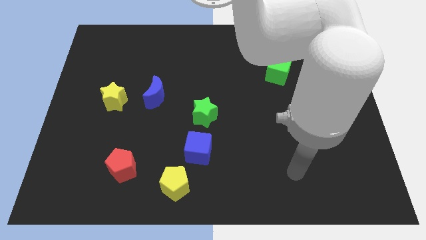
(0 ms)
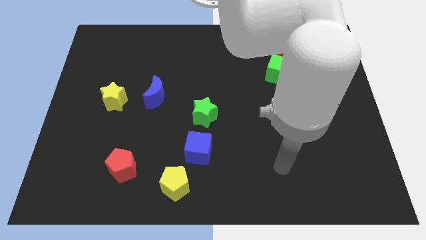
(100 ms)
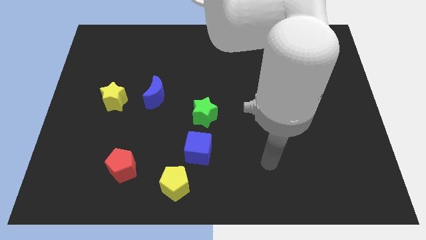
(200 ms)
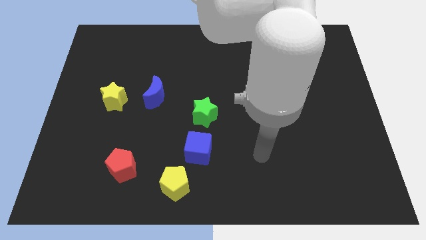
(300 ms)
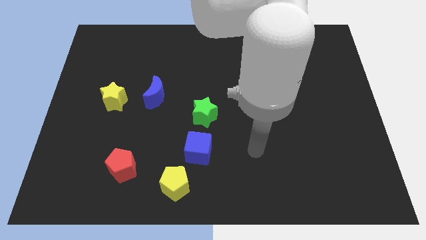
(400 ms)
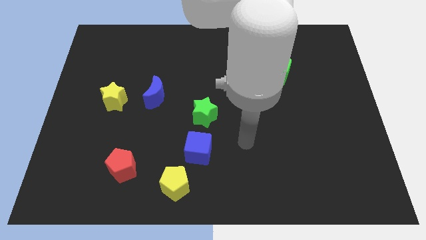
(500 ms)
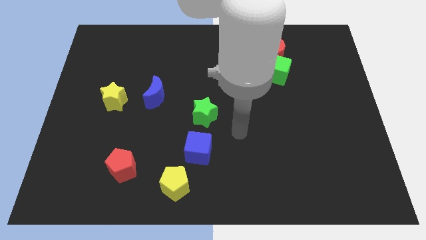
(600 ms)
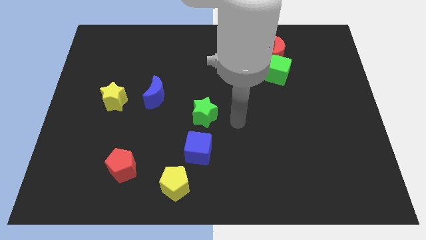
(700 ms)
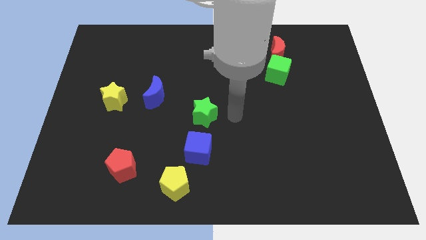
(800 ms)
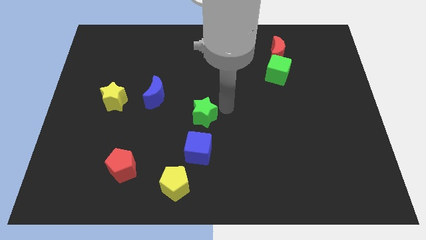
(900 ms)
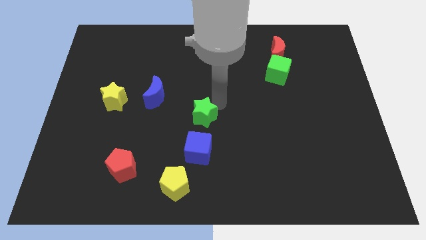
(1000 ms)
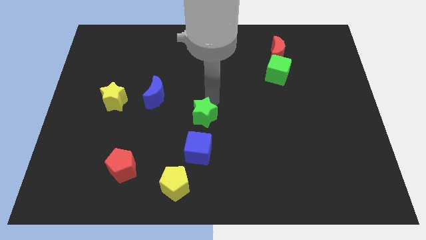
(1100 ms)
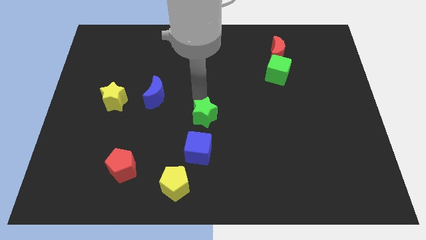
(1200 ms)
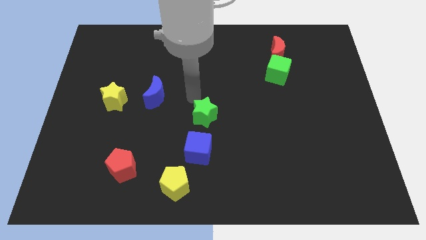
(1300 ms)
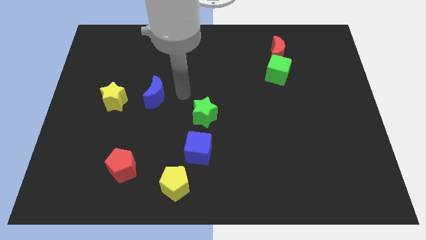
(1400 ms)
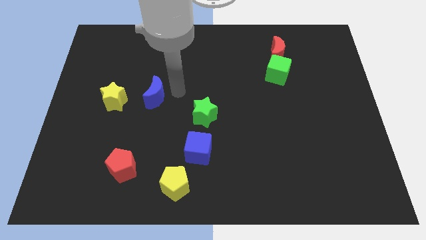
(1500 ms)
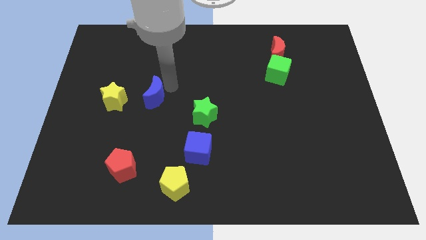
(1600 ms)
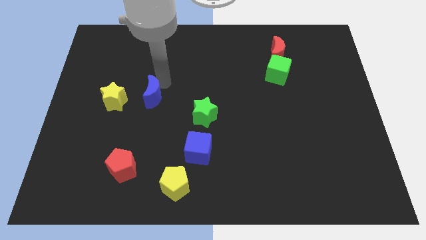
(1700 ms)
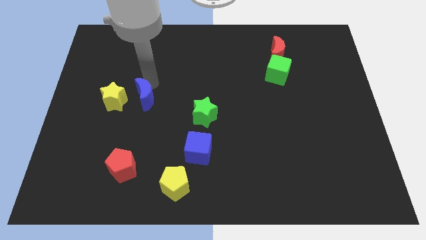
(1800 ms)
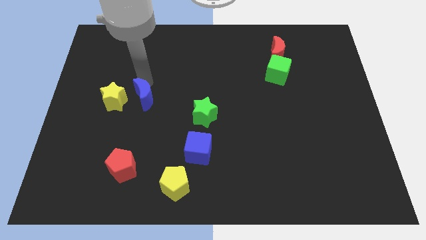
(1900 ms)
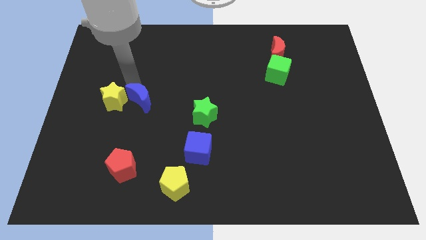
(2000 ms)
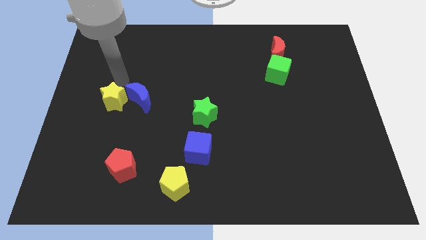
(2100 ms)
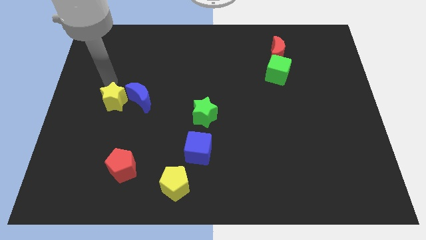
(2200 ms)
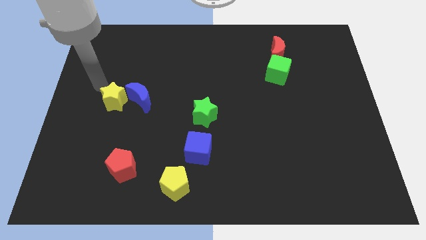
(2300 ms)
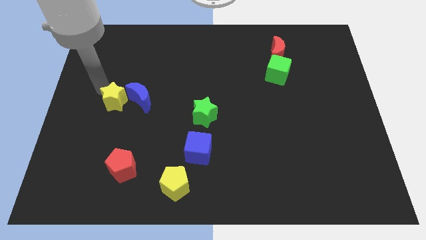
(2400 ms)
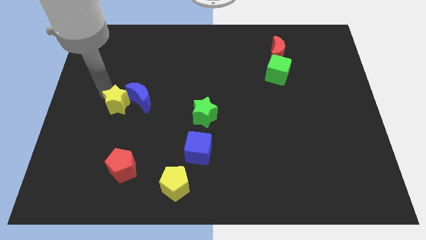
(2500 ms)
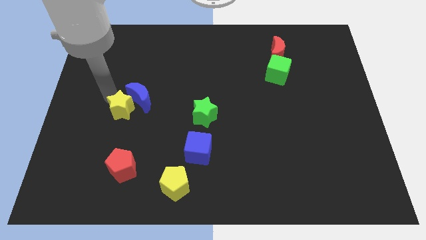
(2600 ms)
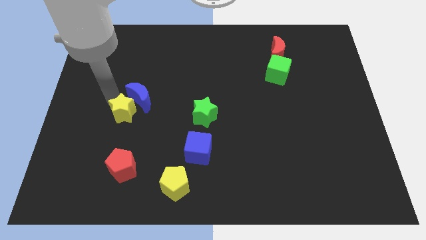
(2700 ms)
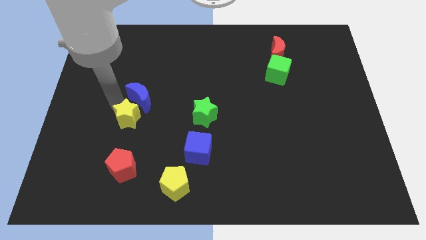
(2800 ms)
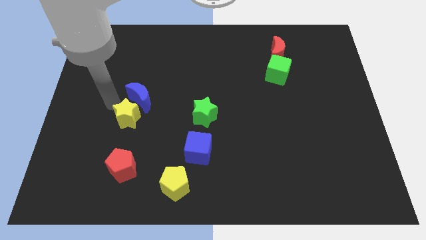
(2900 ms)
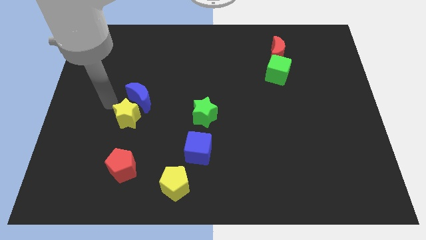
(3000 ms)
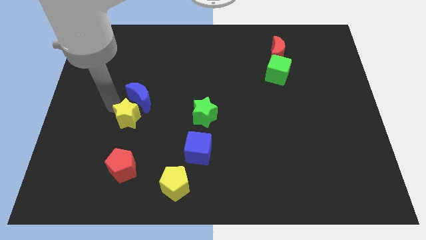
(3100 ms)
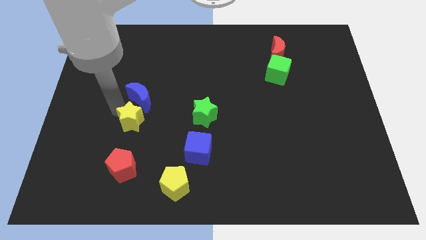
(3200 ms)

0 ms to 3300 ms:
push the yellow star somewhat downwards and then to the right

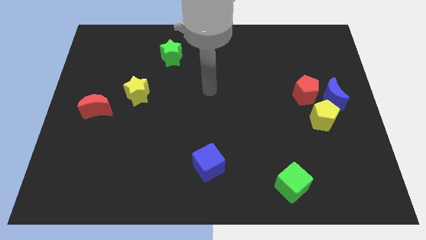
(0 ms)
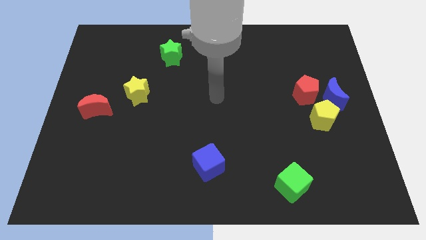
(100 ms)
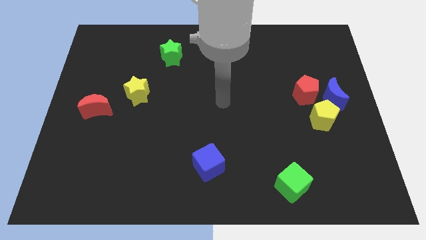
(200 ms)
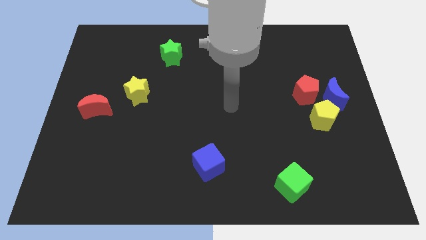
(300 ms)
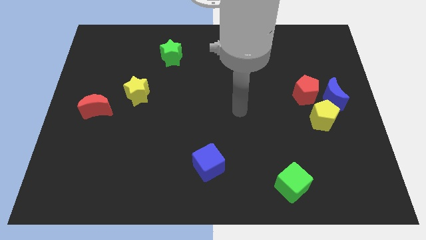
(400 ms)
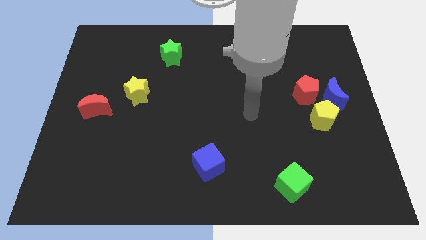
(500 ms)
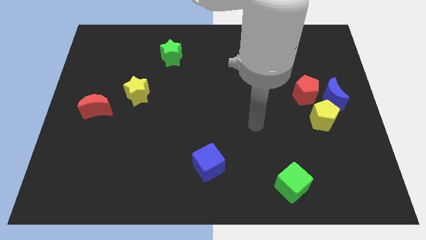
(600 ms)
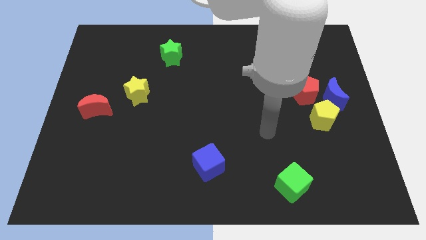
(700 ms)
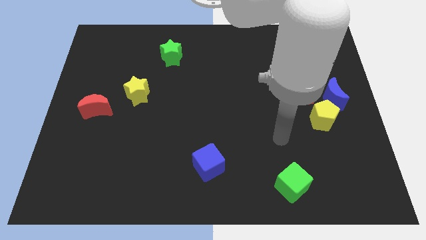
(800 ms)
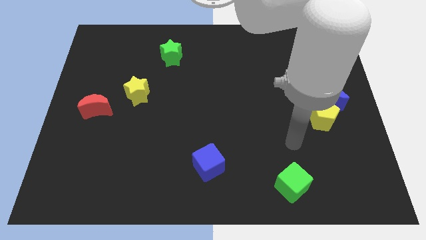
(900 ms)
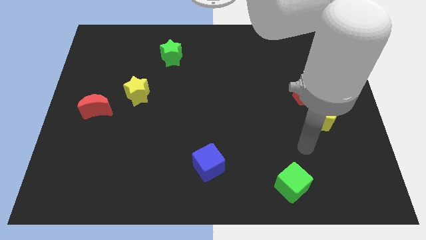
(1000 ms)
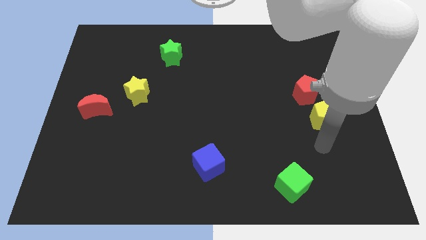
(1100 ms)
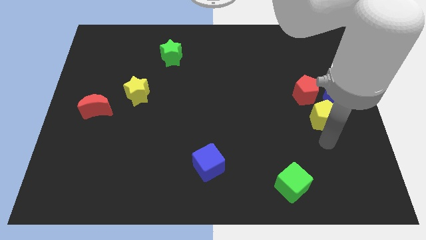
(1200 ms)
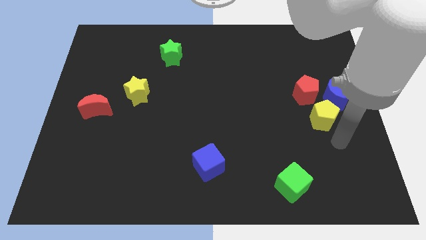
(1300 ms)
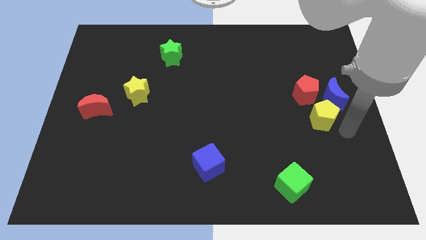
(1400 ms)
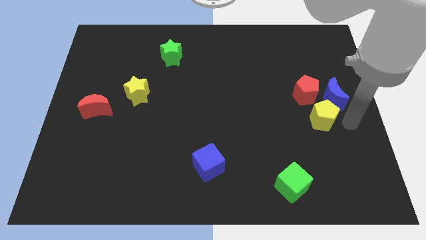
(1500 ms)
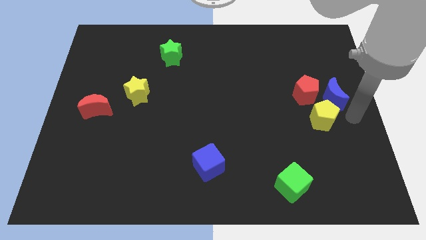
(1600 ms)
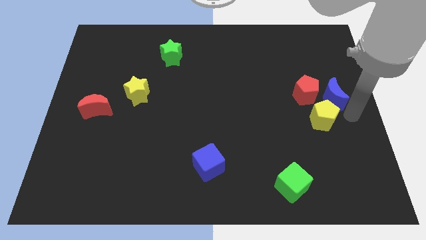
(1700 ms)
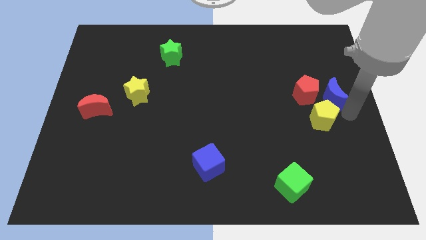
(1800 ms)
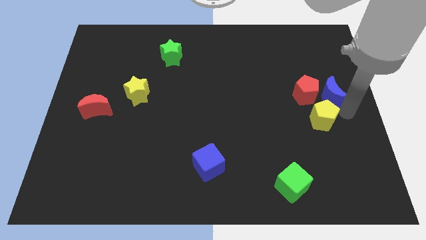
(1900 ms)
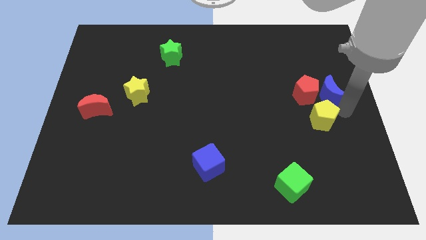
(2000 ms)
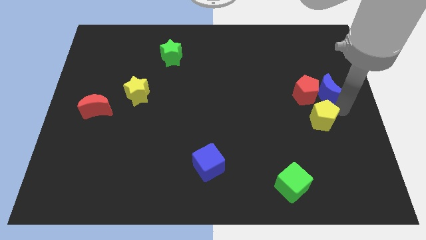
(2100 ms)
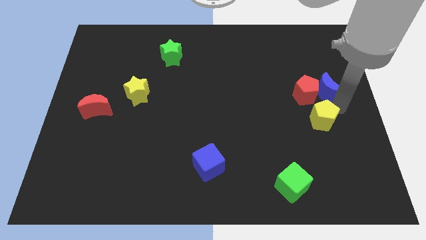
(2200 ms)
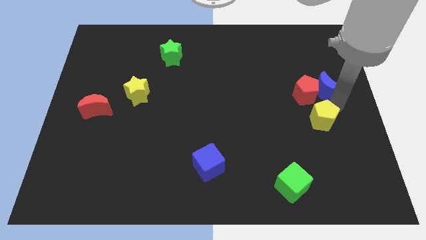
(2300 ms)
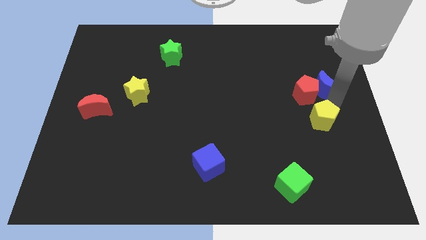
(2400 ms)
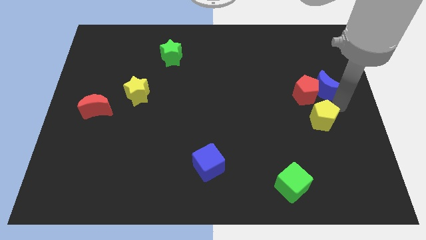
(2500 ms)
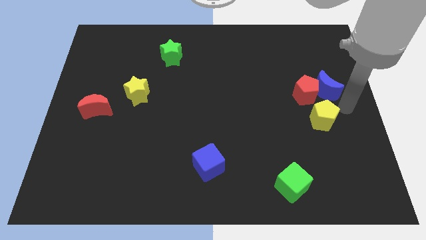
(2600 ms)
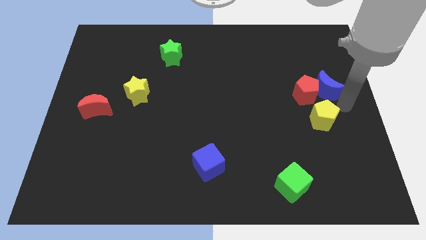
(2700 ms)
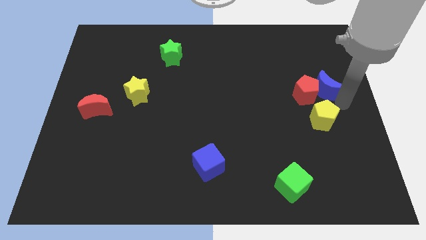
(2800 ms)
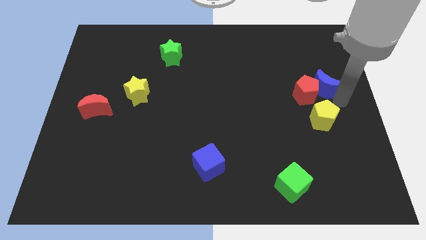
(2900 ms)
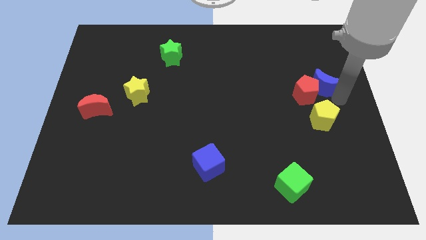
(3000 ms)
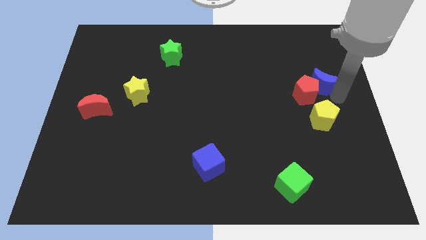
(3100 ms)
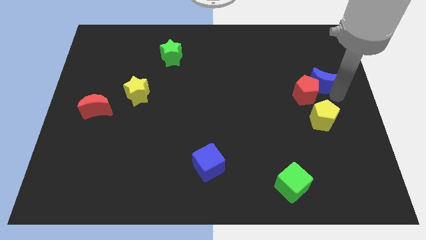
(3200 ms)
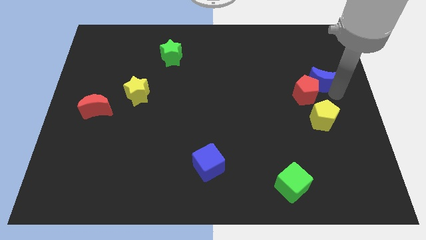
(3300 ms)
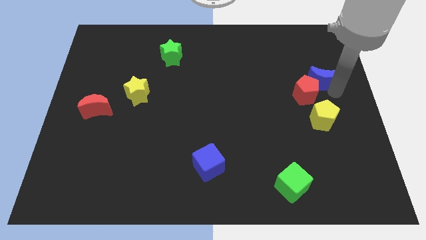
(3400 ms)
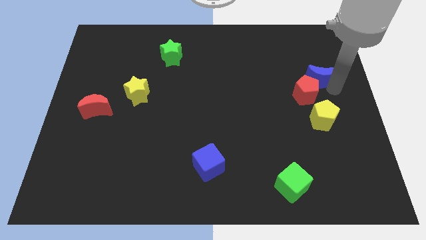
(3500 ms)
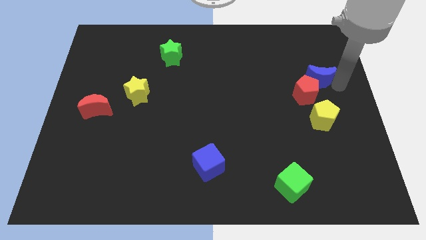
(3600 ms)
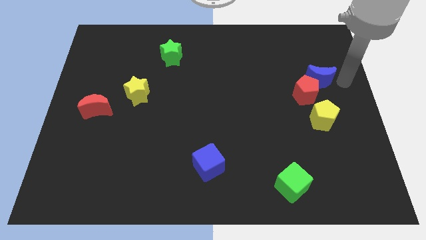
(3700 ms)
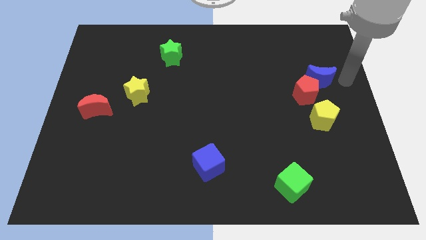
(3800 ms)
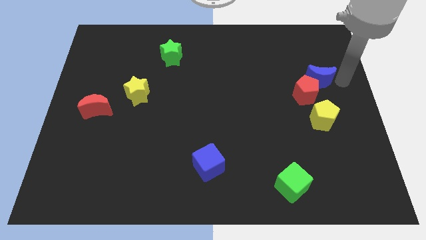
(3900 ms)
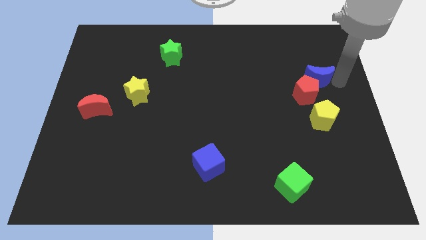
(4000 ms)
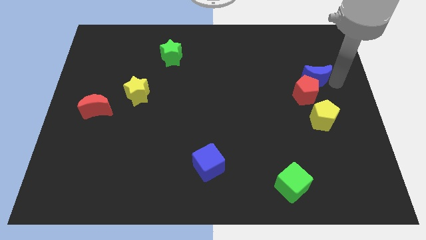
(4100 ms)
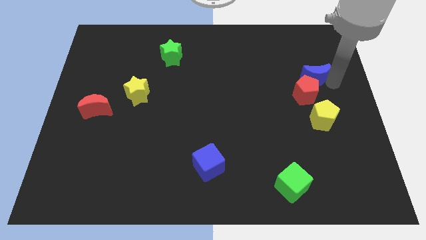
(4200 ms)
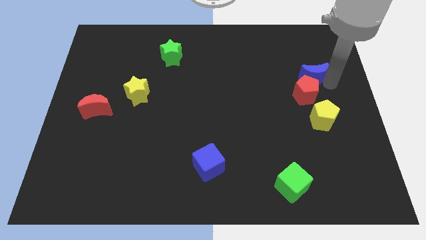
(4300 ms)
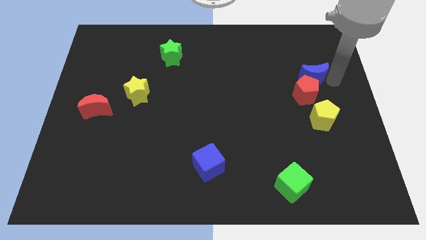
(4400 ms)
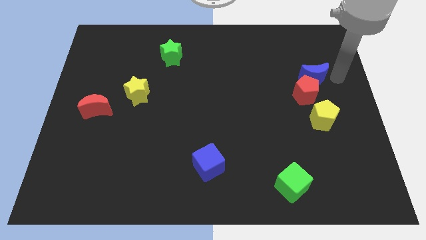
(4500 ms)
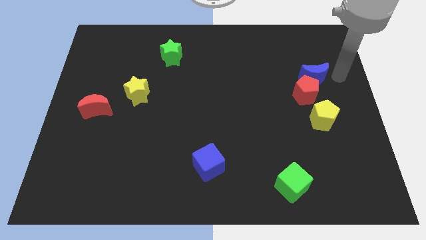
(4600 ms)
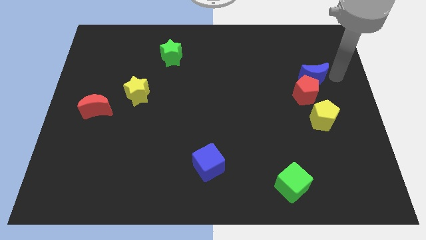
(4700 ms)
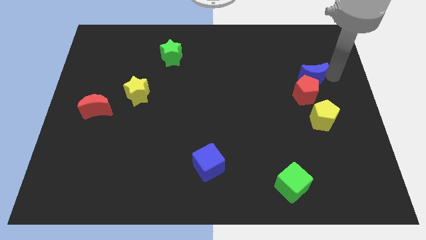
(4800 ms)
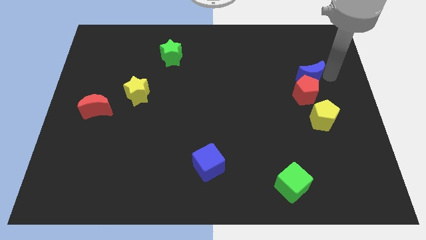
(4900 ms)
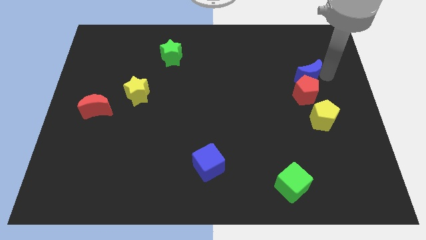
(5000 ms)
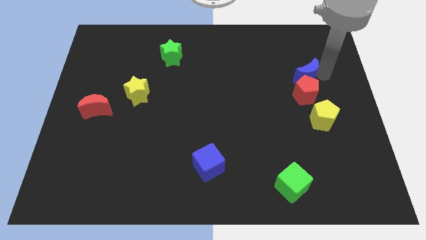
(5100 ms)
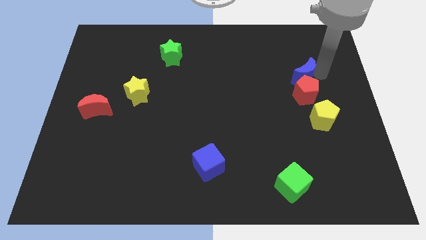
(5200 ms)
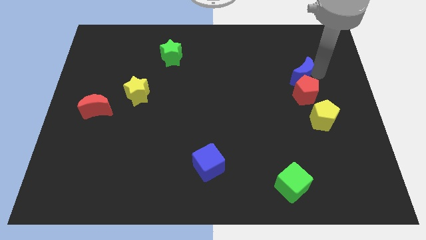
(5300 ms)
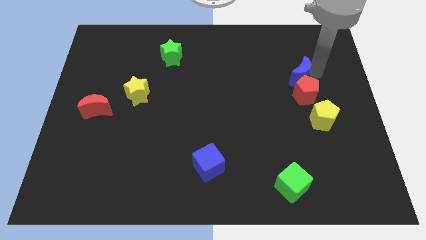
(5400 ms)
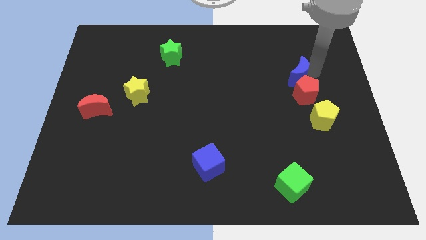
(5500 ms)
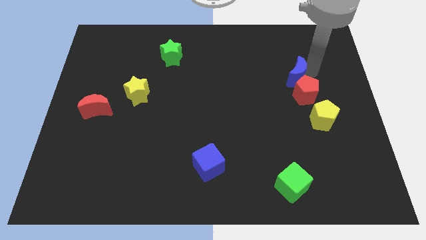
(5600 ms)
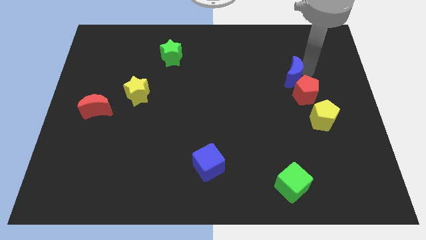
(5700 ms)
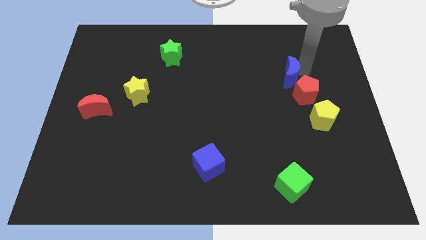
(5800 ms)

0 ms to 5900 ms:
slide the blue moon a bit left
